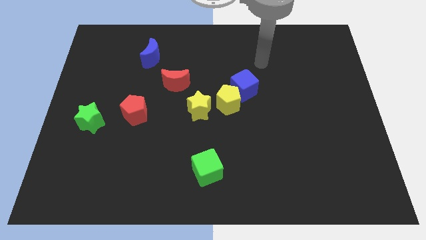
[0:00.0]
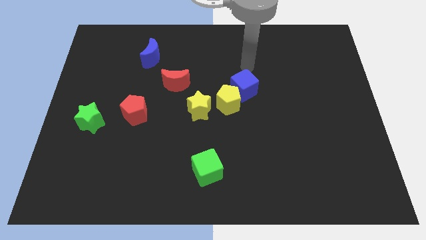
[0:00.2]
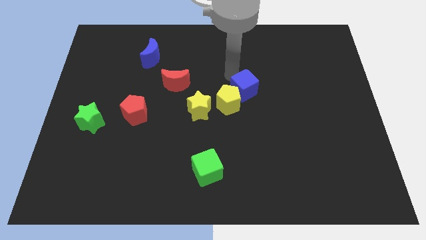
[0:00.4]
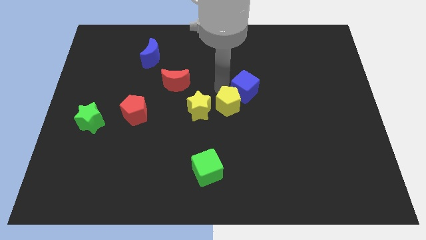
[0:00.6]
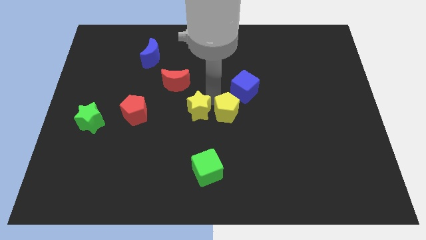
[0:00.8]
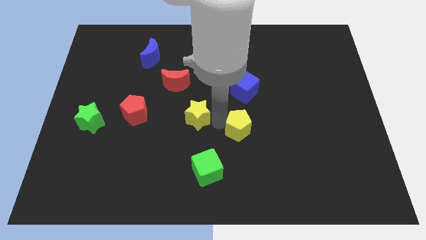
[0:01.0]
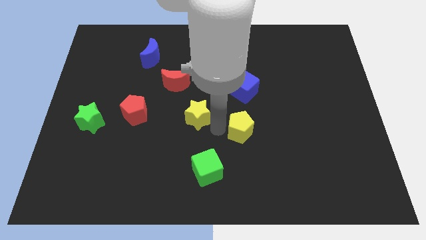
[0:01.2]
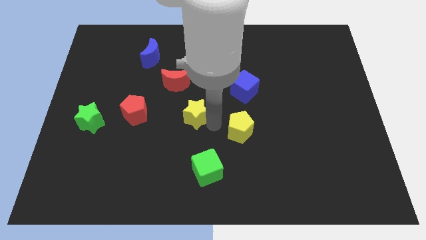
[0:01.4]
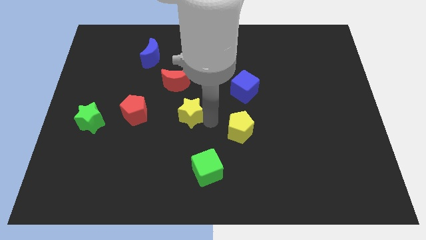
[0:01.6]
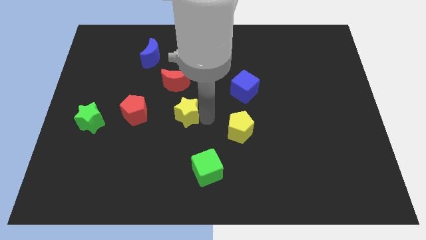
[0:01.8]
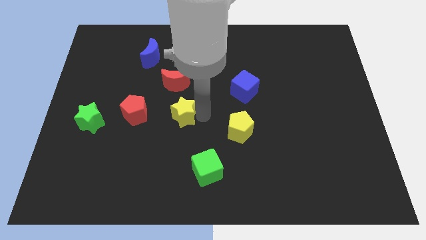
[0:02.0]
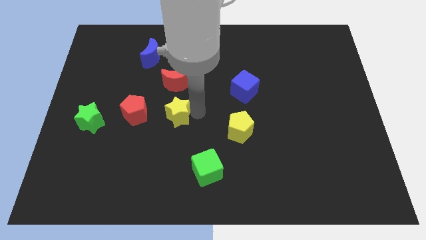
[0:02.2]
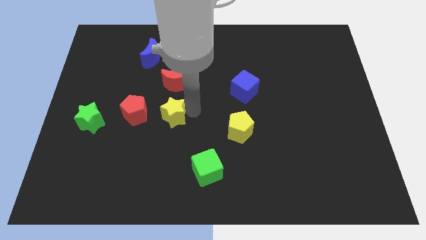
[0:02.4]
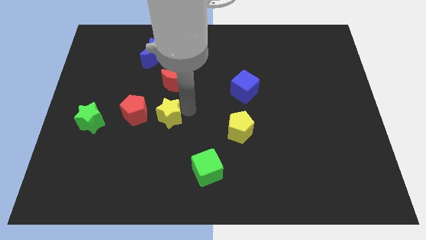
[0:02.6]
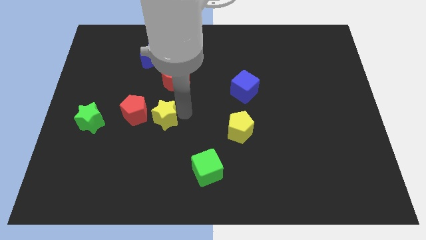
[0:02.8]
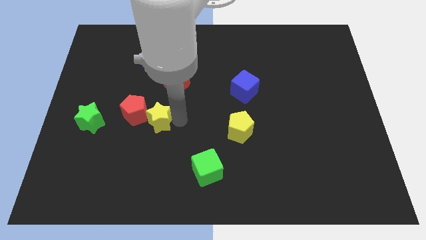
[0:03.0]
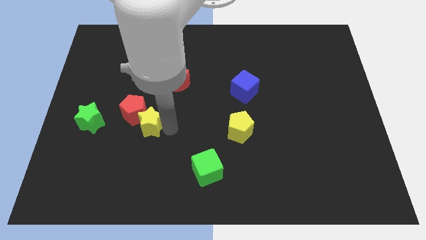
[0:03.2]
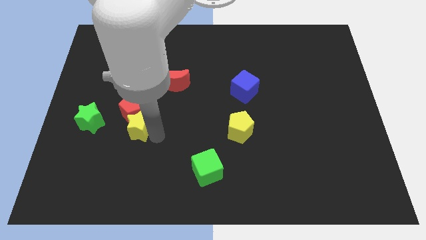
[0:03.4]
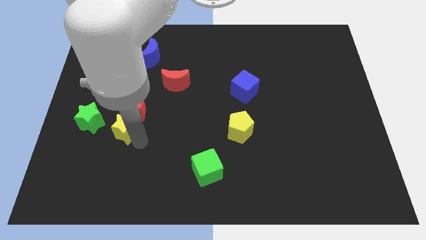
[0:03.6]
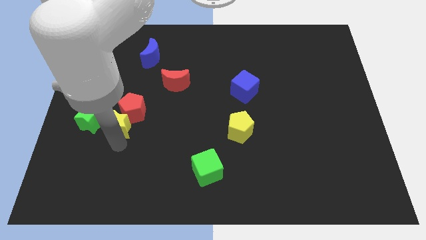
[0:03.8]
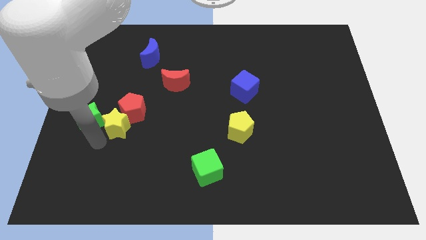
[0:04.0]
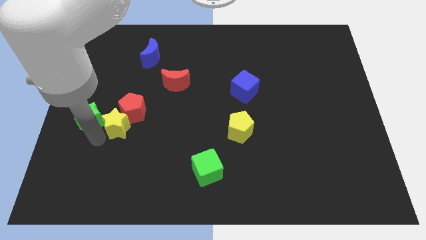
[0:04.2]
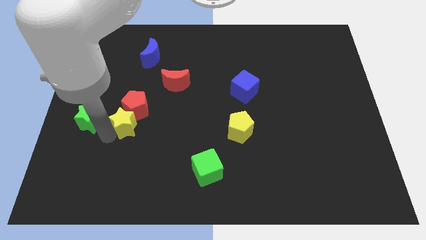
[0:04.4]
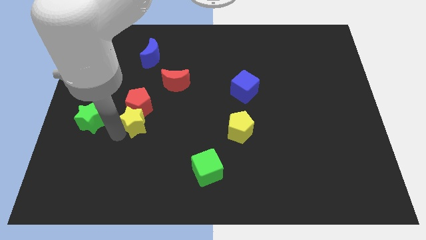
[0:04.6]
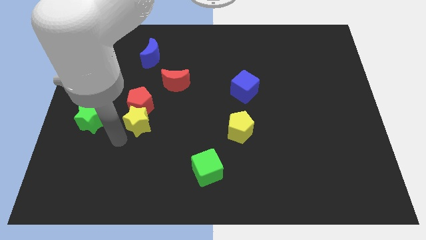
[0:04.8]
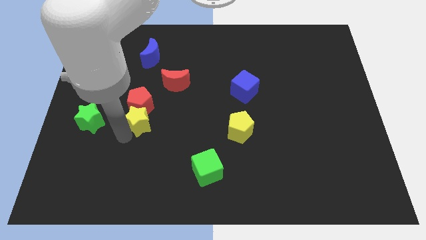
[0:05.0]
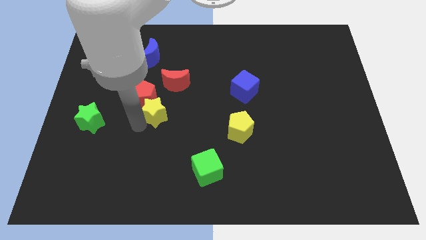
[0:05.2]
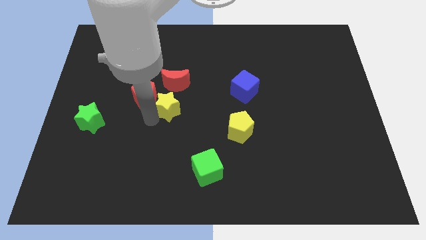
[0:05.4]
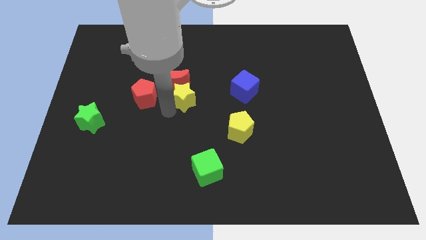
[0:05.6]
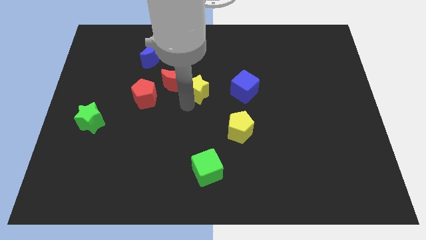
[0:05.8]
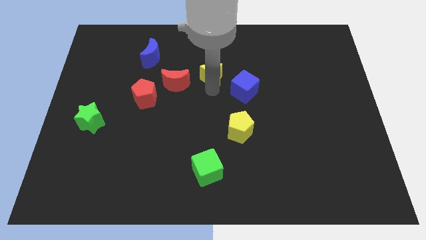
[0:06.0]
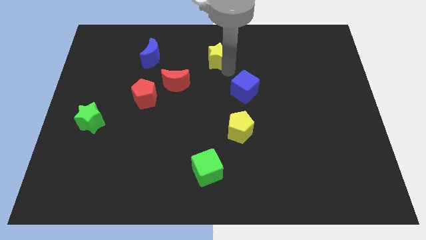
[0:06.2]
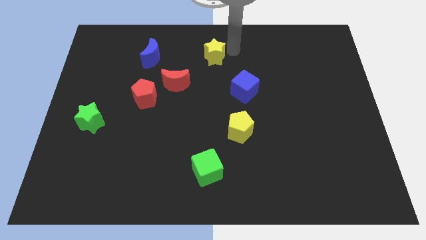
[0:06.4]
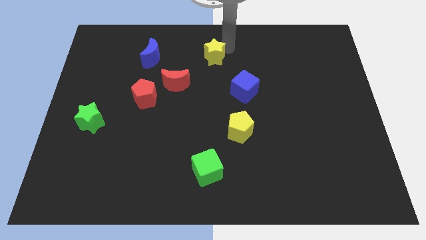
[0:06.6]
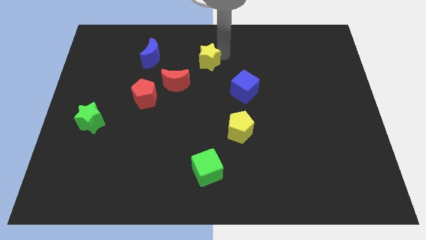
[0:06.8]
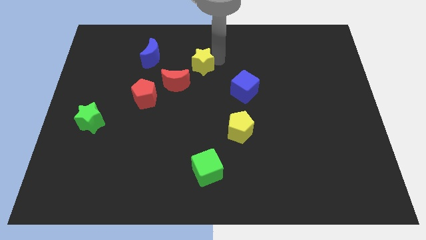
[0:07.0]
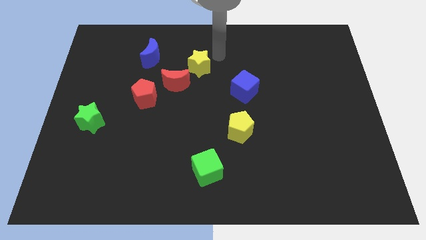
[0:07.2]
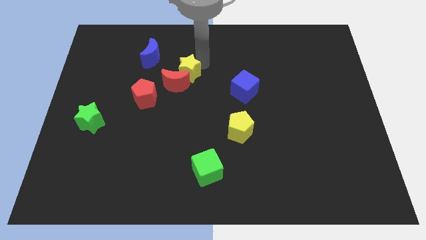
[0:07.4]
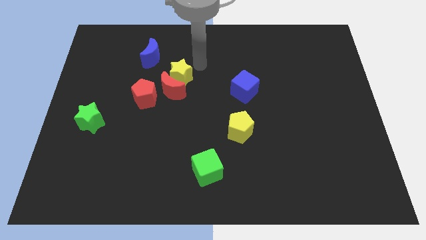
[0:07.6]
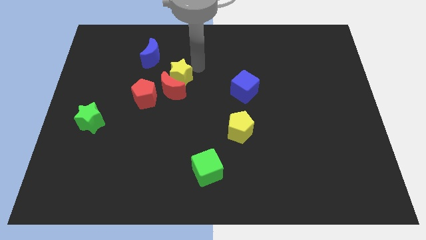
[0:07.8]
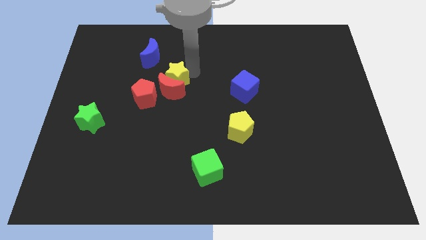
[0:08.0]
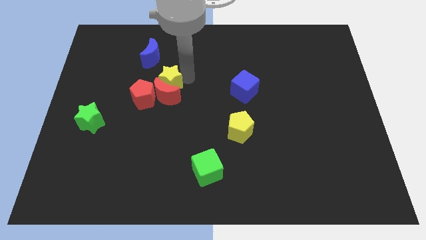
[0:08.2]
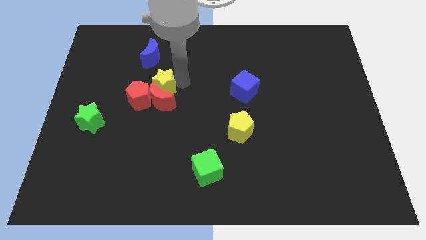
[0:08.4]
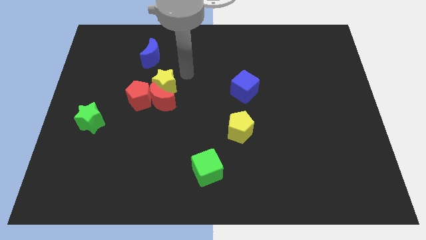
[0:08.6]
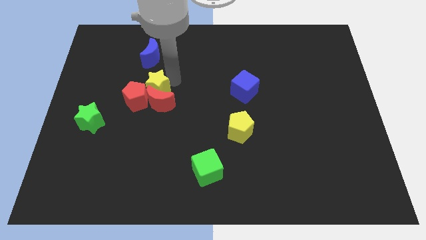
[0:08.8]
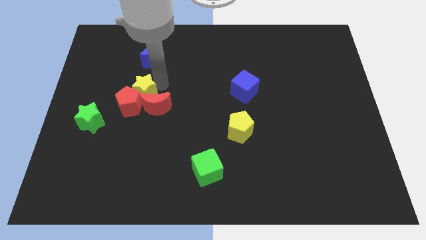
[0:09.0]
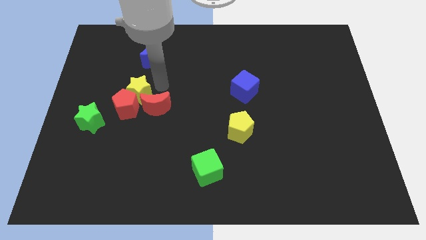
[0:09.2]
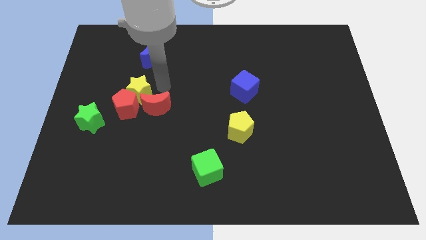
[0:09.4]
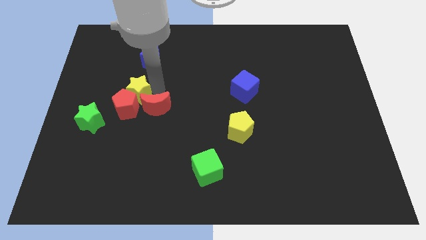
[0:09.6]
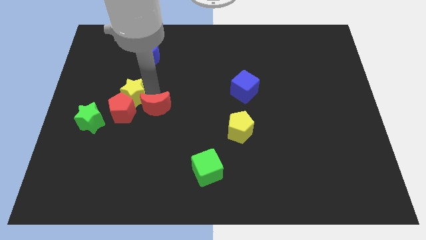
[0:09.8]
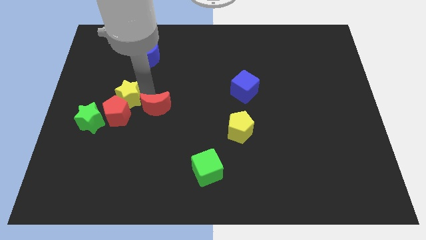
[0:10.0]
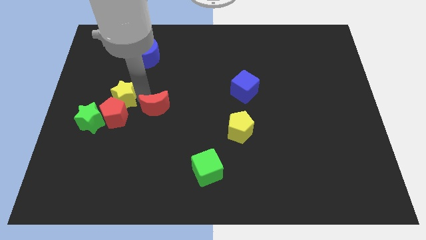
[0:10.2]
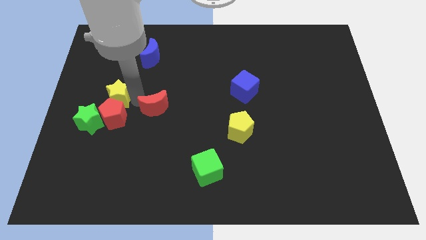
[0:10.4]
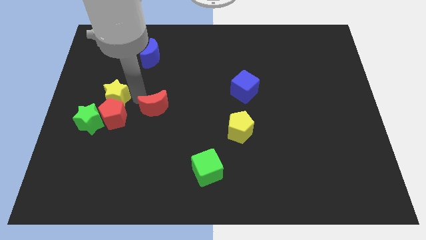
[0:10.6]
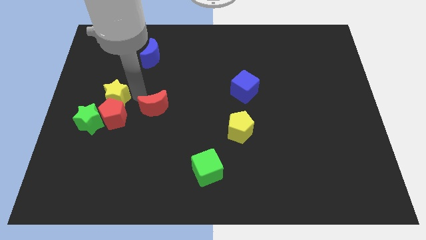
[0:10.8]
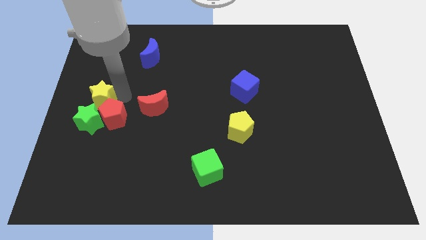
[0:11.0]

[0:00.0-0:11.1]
put the yellow star to the center left
